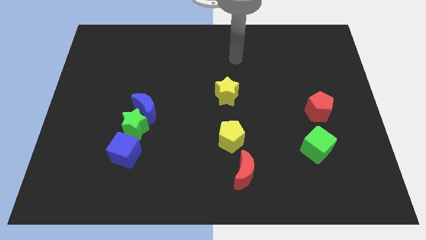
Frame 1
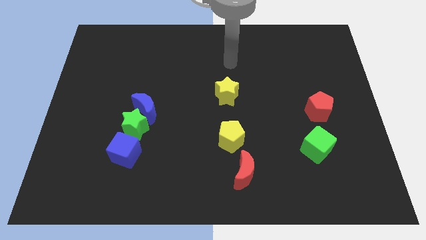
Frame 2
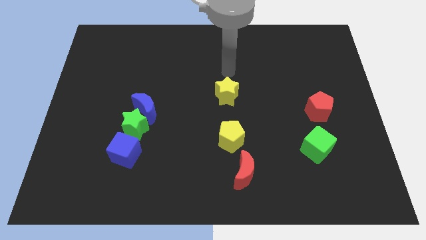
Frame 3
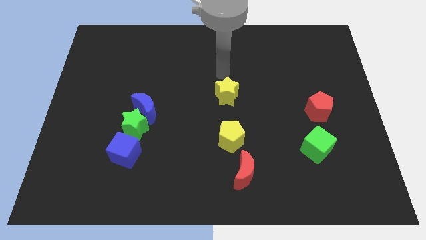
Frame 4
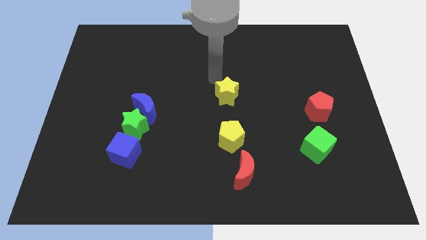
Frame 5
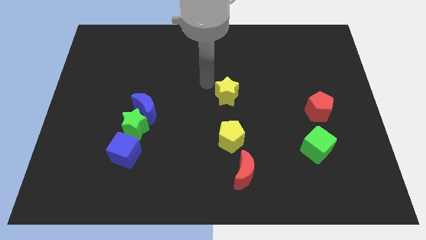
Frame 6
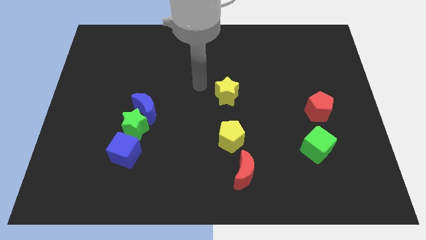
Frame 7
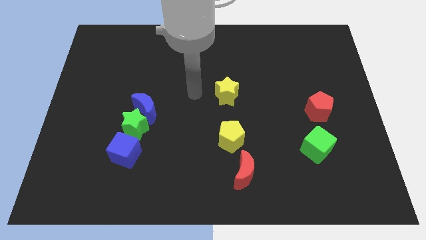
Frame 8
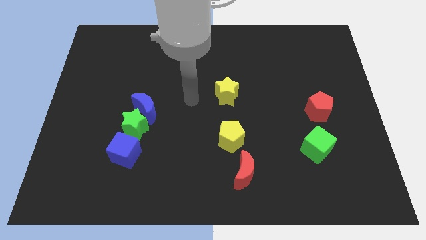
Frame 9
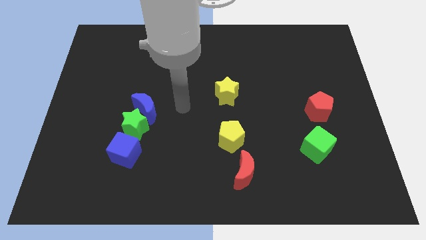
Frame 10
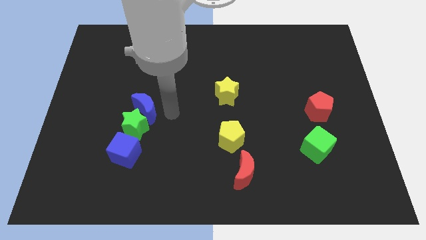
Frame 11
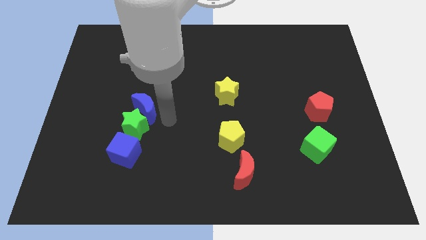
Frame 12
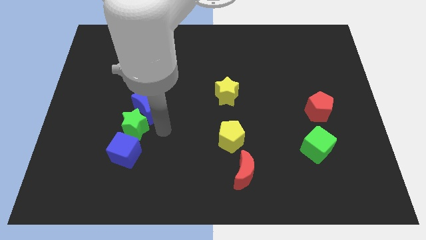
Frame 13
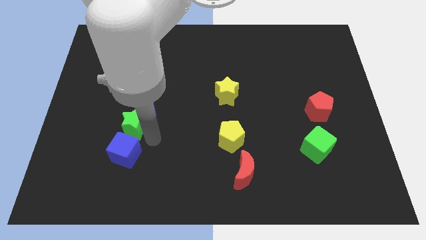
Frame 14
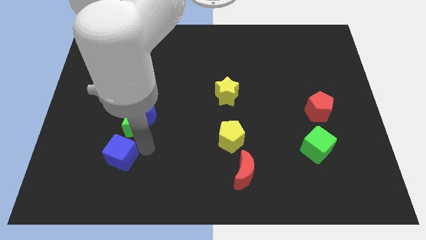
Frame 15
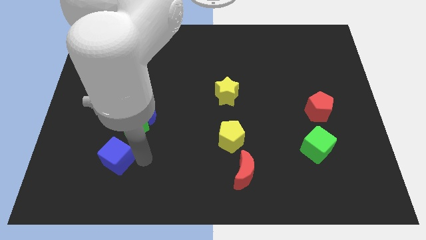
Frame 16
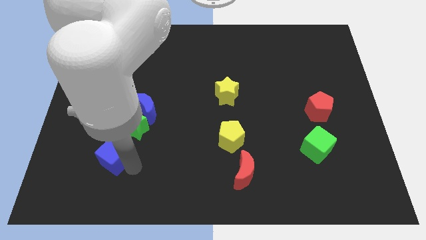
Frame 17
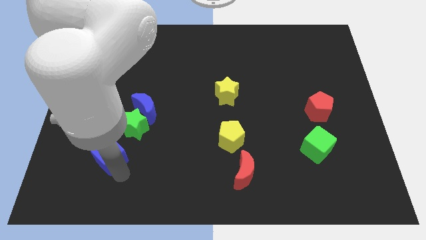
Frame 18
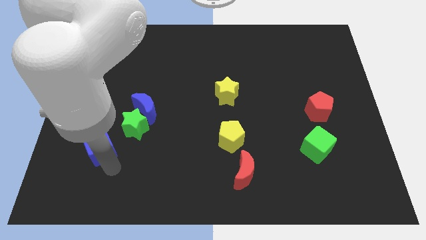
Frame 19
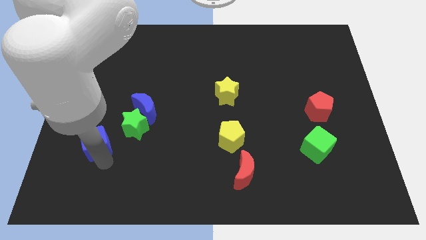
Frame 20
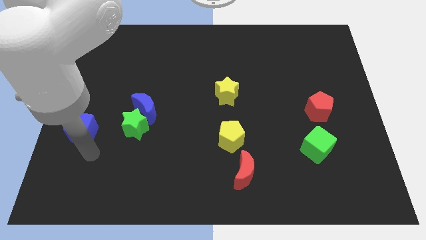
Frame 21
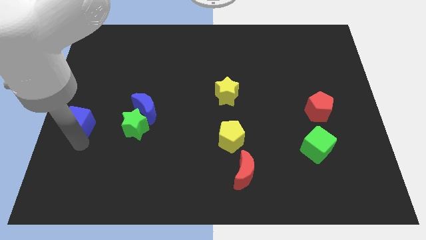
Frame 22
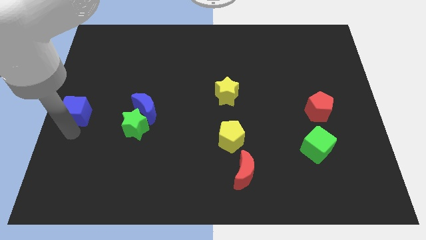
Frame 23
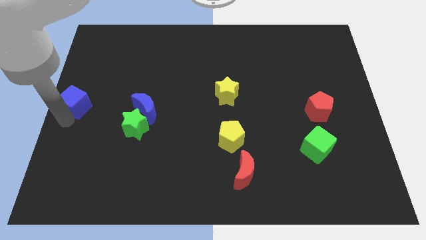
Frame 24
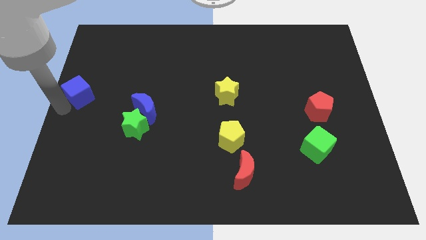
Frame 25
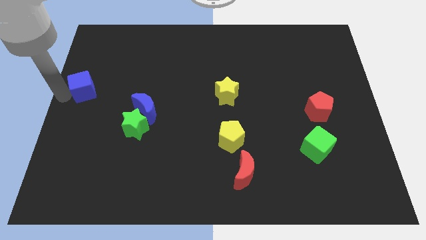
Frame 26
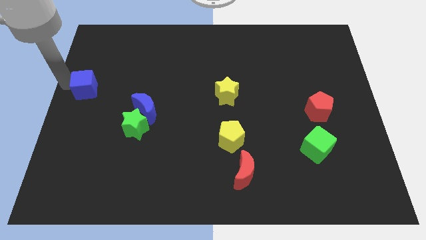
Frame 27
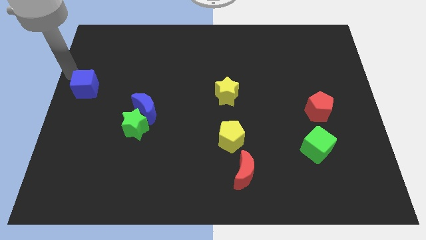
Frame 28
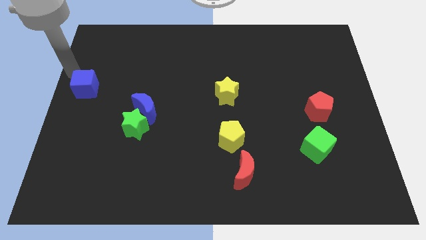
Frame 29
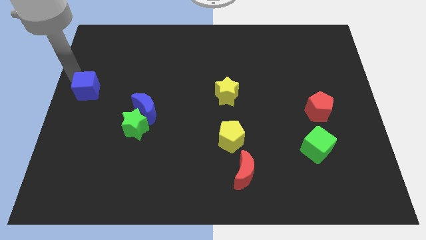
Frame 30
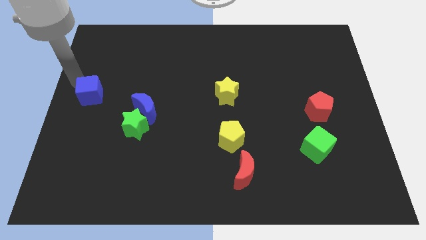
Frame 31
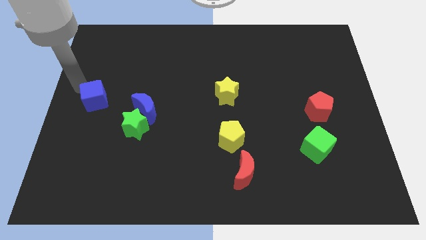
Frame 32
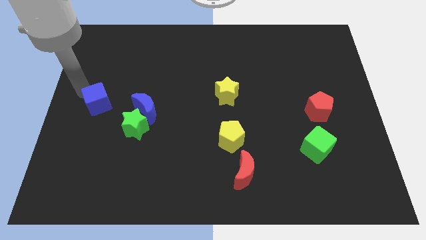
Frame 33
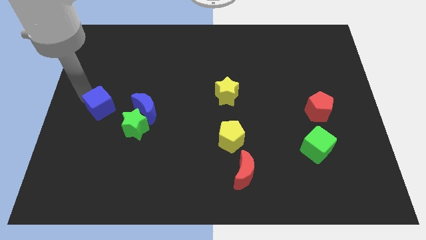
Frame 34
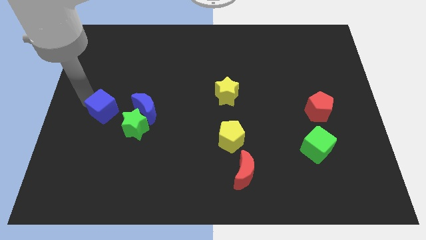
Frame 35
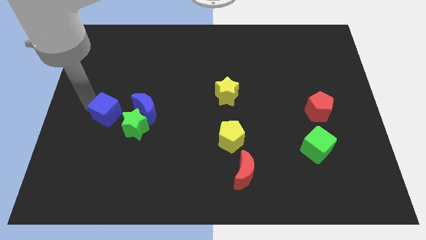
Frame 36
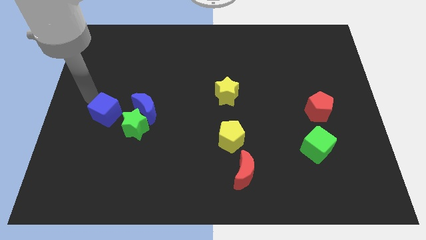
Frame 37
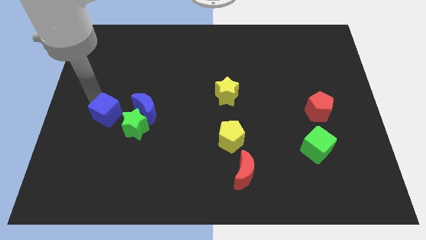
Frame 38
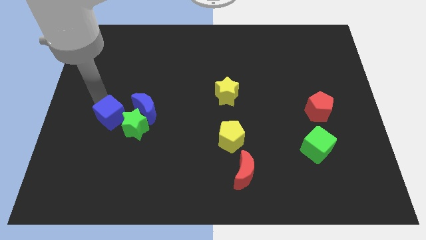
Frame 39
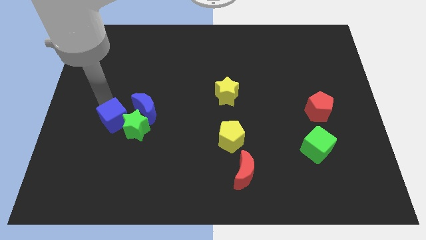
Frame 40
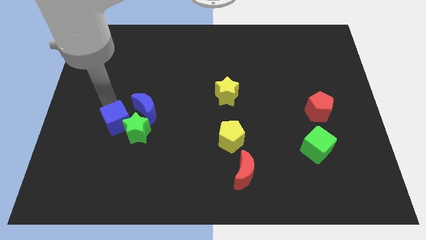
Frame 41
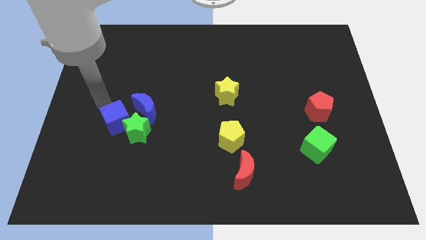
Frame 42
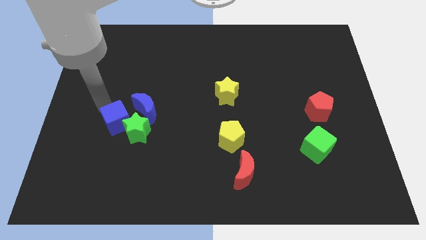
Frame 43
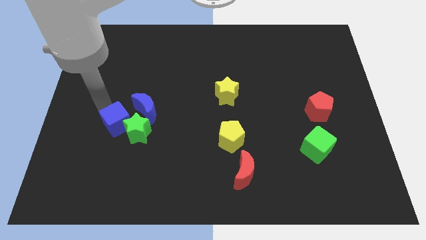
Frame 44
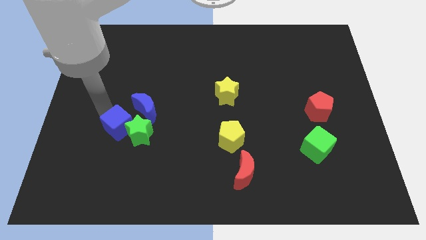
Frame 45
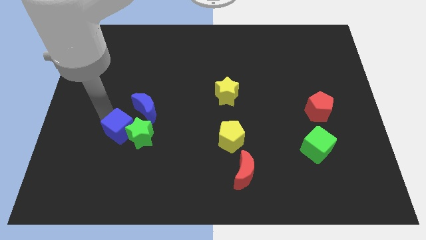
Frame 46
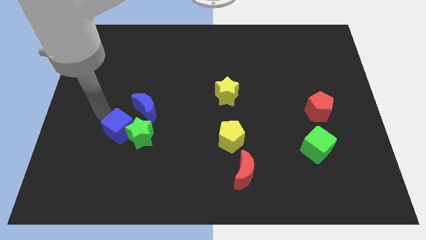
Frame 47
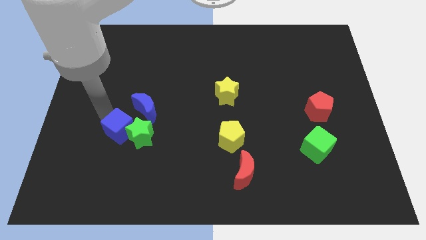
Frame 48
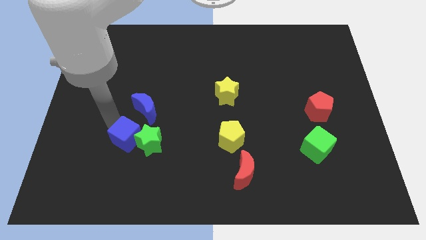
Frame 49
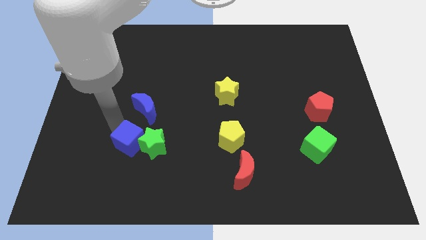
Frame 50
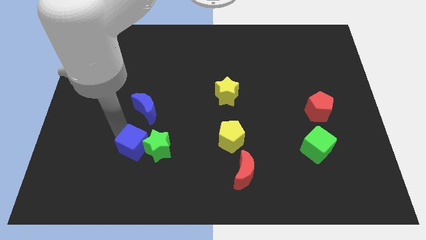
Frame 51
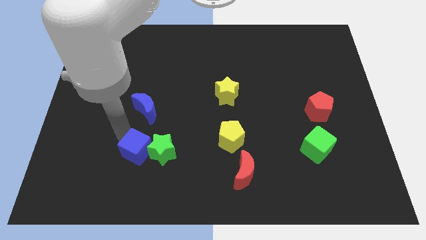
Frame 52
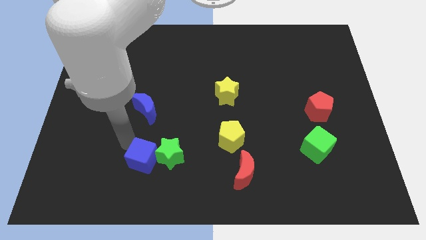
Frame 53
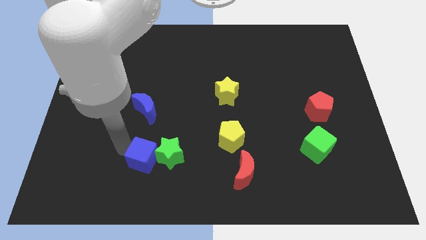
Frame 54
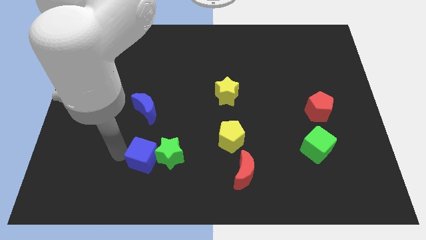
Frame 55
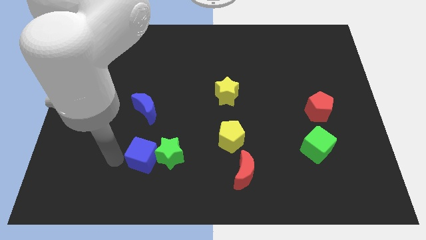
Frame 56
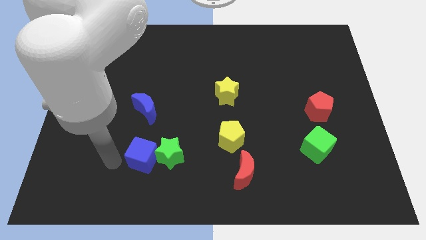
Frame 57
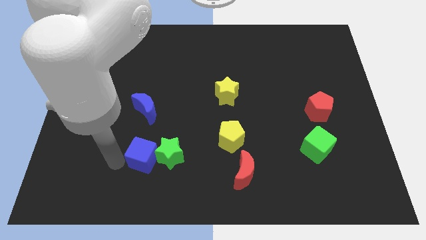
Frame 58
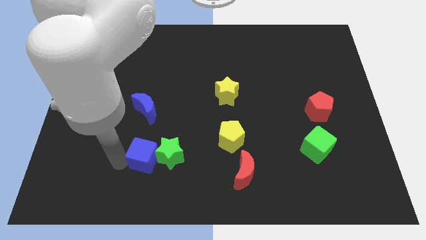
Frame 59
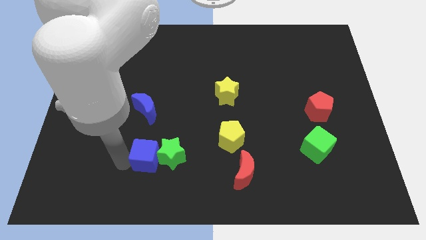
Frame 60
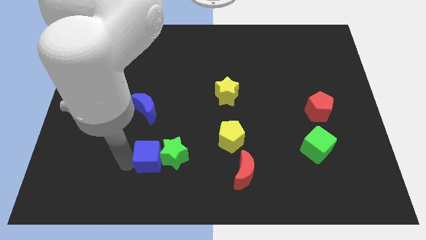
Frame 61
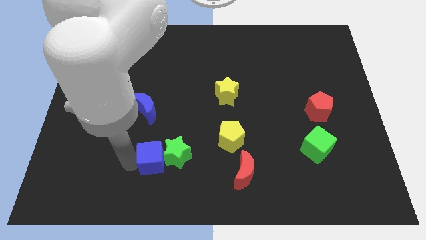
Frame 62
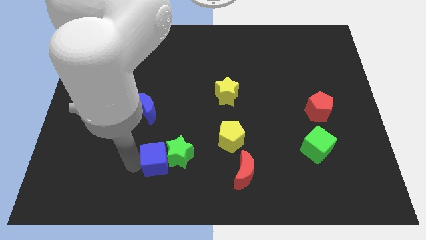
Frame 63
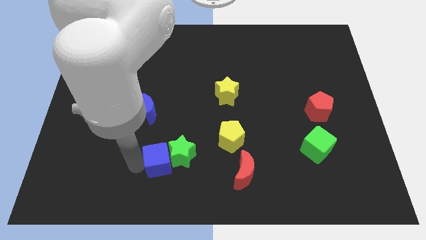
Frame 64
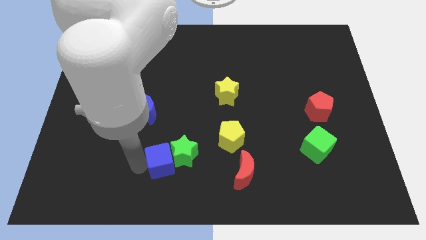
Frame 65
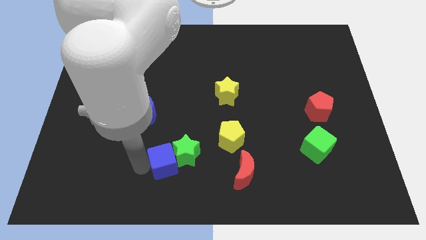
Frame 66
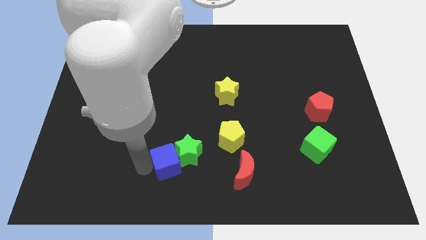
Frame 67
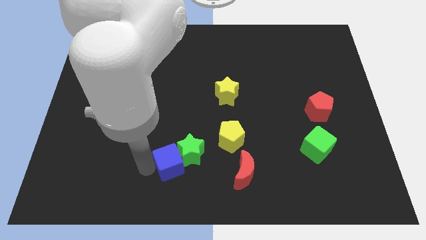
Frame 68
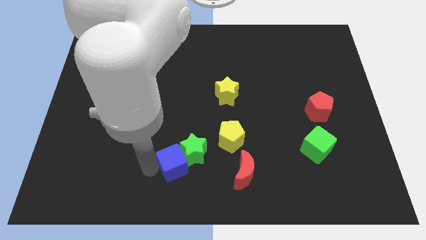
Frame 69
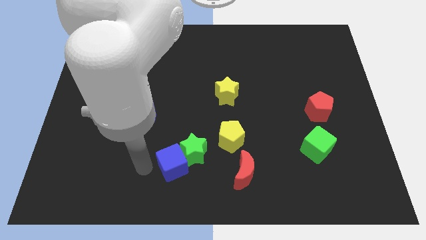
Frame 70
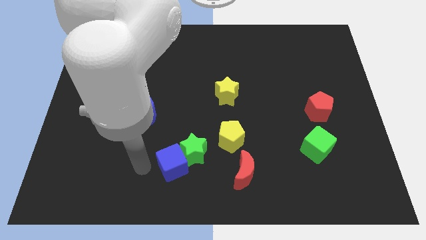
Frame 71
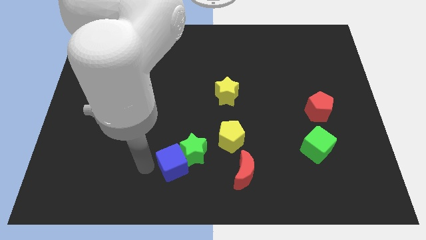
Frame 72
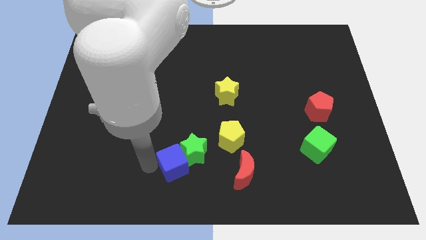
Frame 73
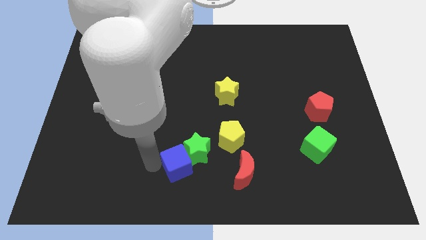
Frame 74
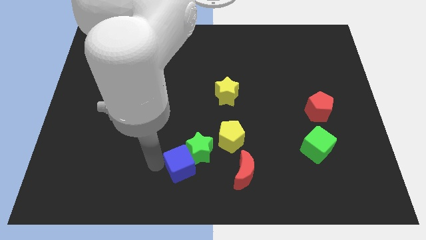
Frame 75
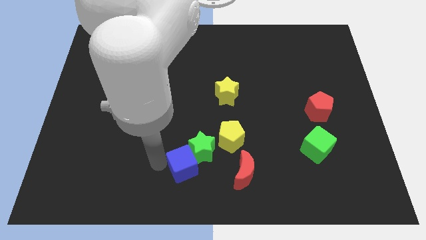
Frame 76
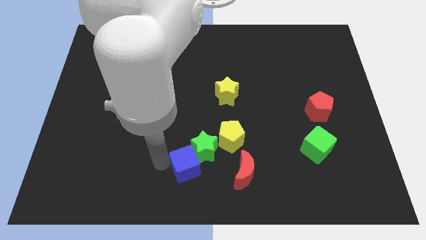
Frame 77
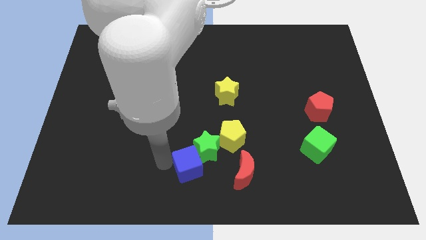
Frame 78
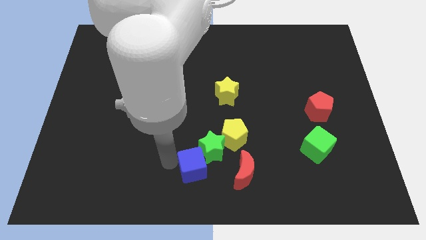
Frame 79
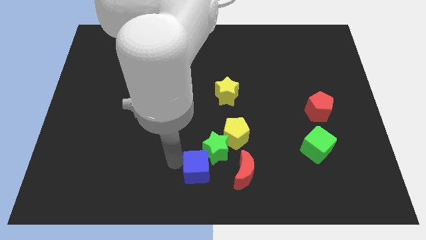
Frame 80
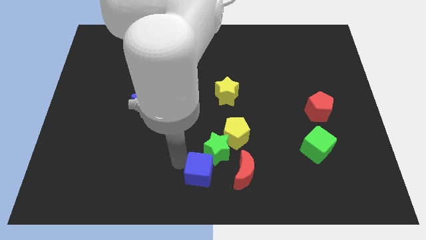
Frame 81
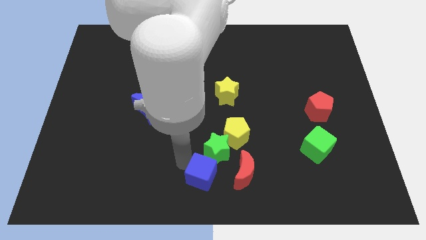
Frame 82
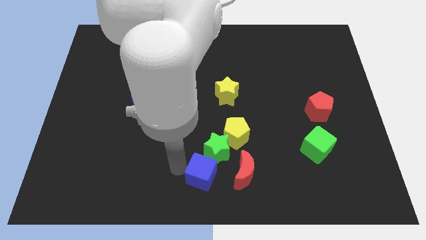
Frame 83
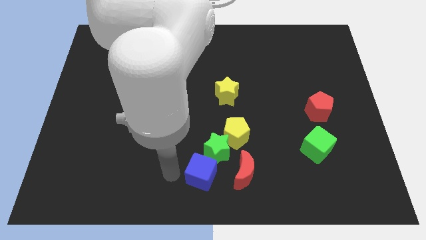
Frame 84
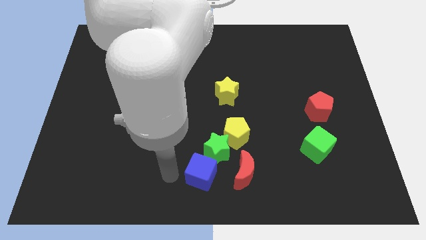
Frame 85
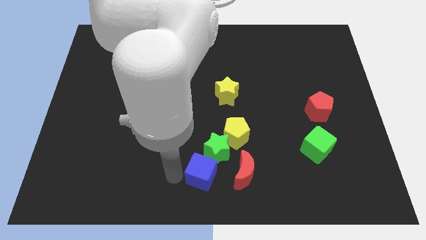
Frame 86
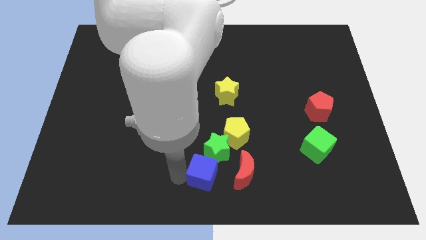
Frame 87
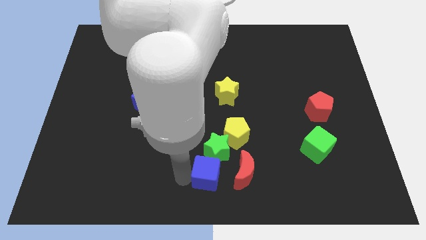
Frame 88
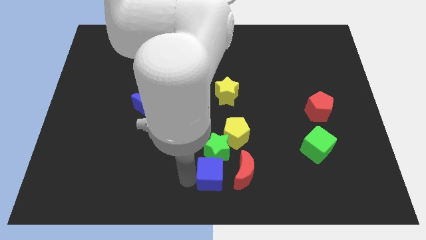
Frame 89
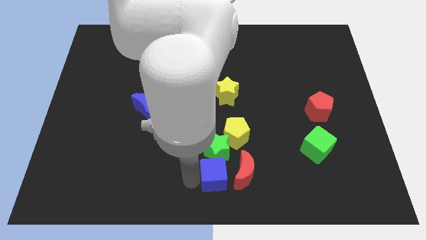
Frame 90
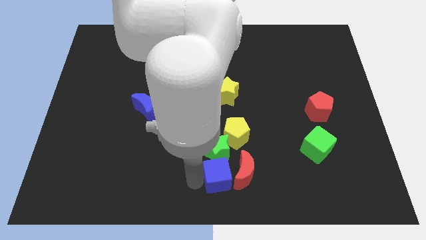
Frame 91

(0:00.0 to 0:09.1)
put the blue cube next to the red moon
